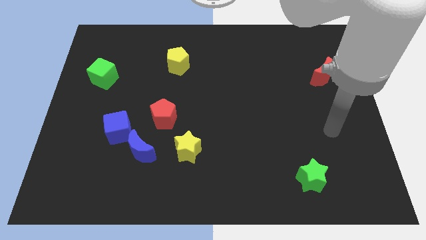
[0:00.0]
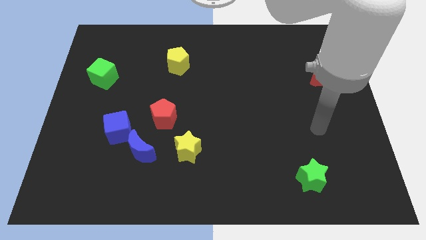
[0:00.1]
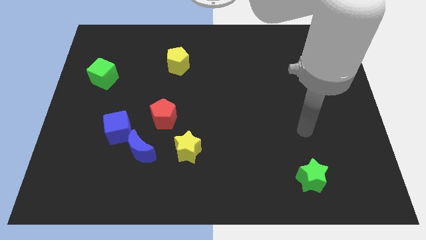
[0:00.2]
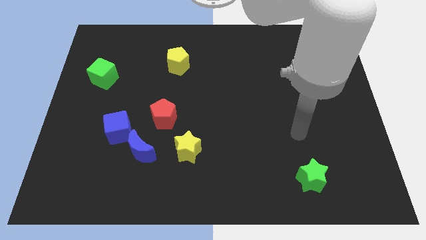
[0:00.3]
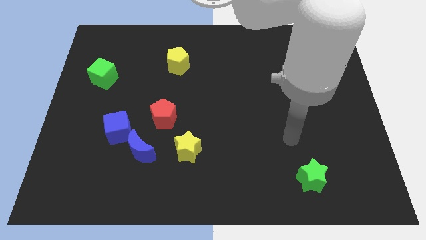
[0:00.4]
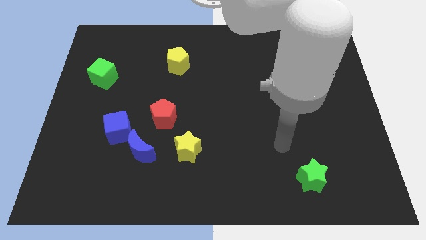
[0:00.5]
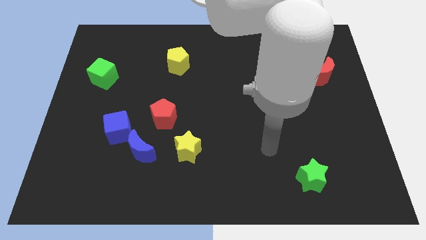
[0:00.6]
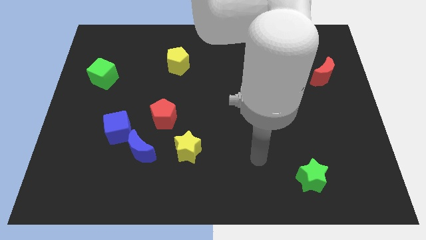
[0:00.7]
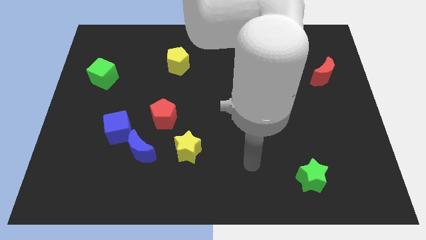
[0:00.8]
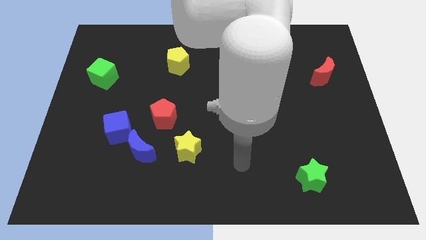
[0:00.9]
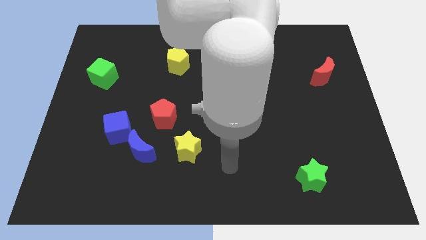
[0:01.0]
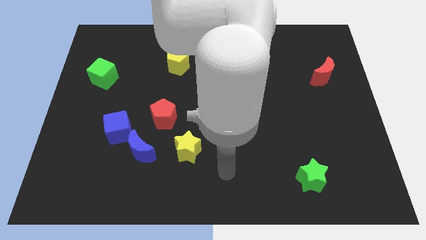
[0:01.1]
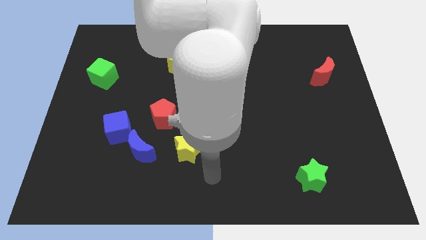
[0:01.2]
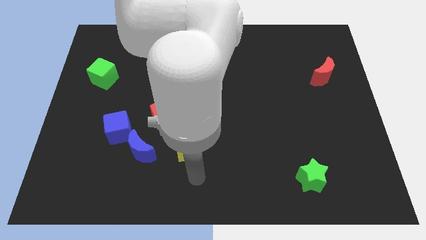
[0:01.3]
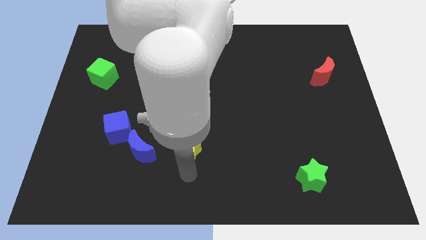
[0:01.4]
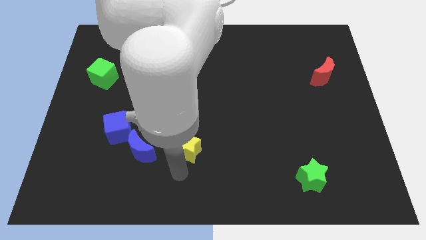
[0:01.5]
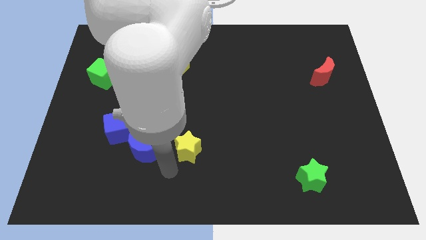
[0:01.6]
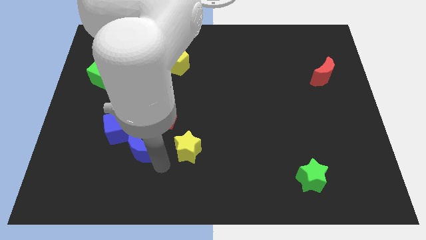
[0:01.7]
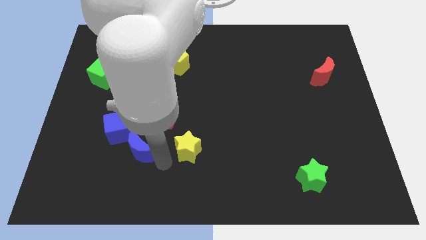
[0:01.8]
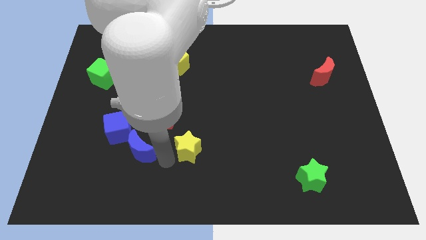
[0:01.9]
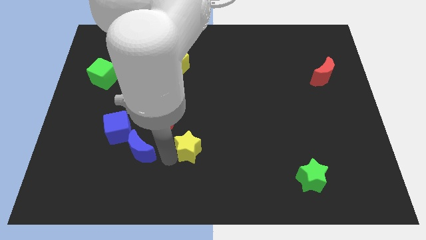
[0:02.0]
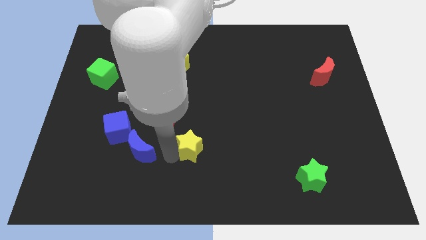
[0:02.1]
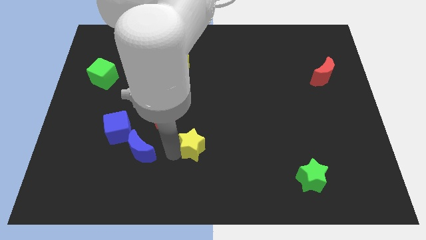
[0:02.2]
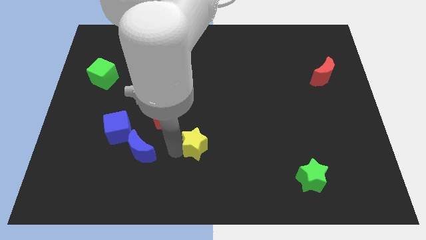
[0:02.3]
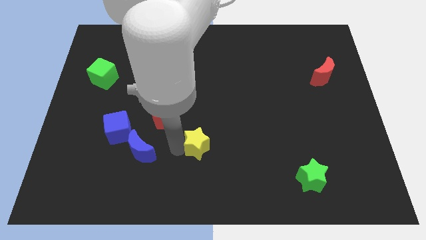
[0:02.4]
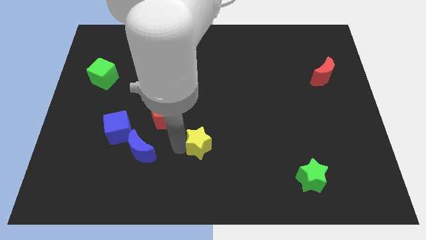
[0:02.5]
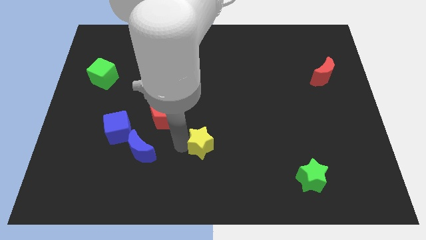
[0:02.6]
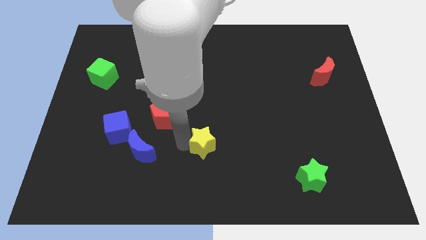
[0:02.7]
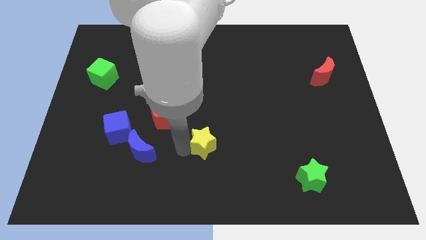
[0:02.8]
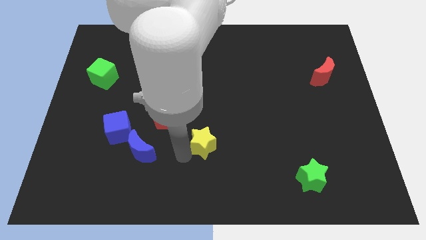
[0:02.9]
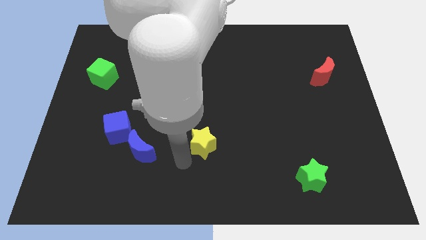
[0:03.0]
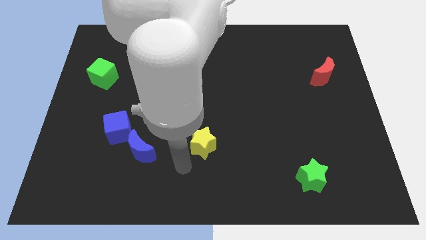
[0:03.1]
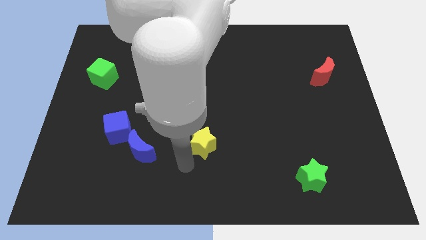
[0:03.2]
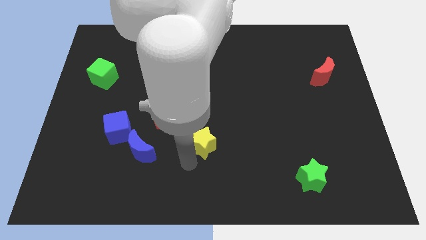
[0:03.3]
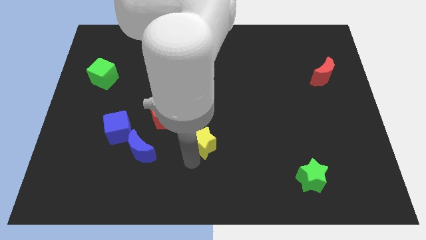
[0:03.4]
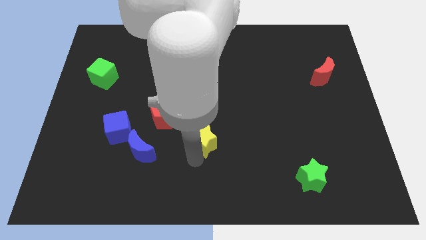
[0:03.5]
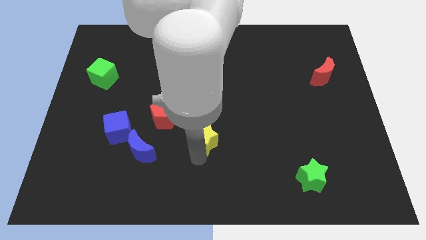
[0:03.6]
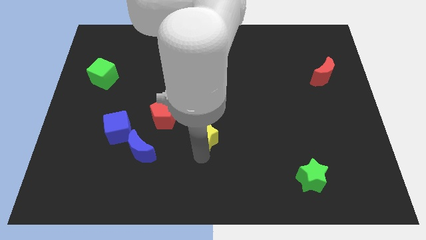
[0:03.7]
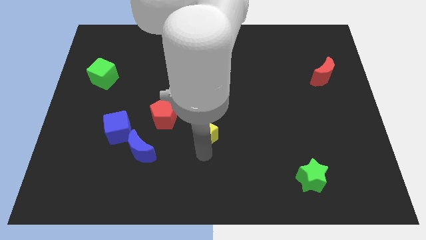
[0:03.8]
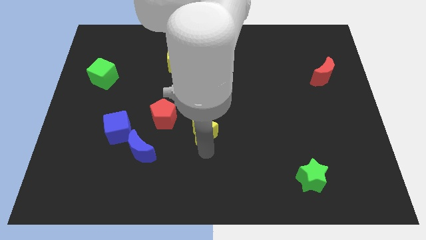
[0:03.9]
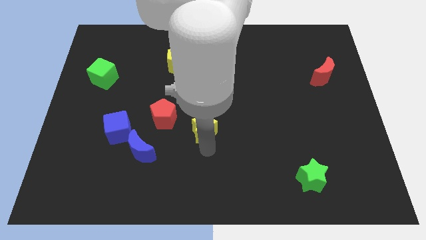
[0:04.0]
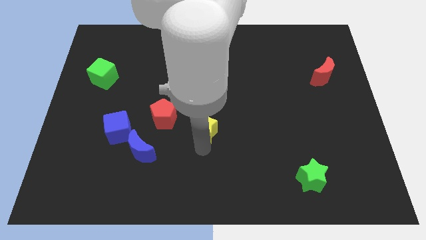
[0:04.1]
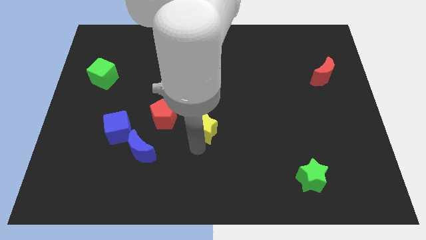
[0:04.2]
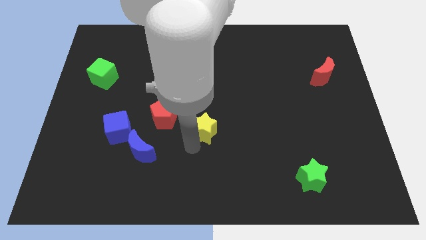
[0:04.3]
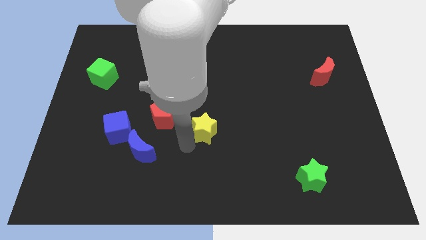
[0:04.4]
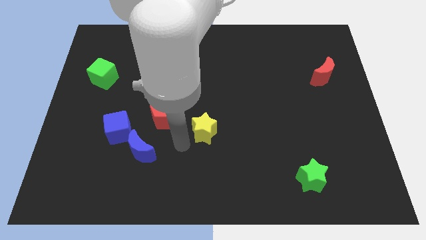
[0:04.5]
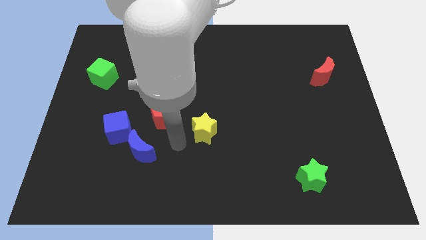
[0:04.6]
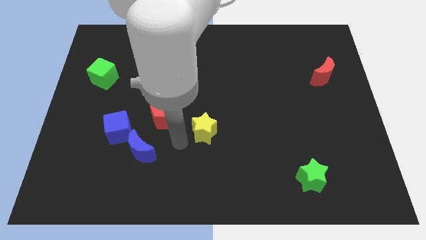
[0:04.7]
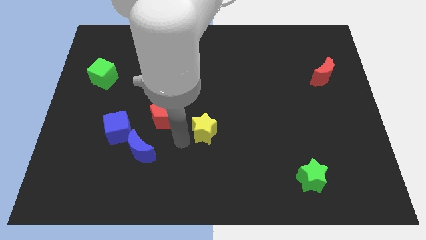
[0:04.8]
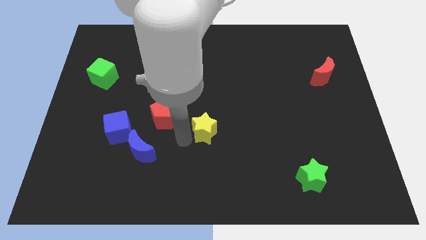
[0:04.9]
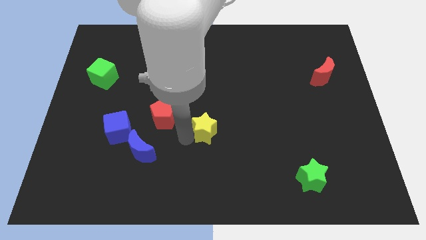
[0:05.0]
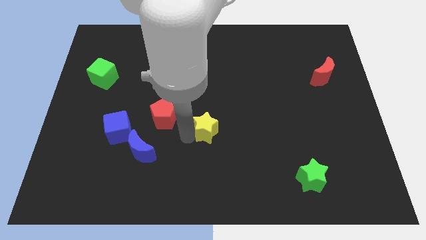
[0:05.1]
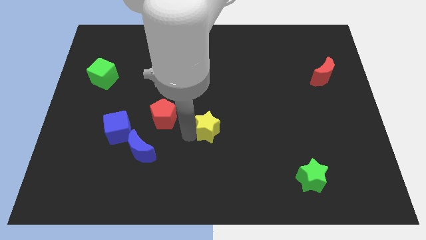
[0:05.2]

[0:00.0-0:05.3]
slightly push the yellow star up and to the right

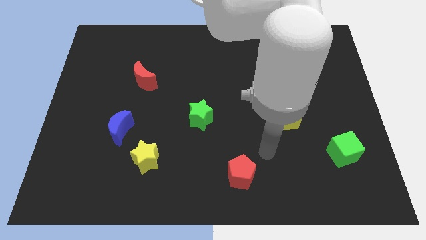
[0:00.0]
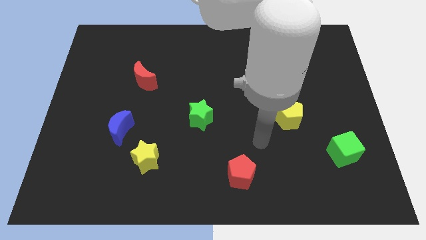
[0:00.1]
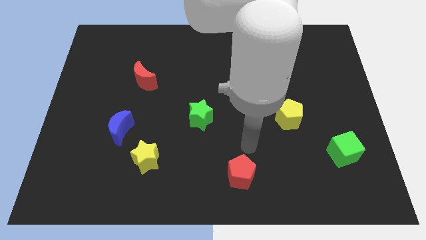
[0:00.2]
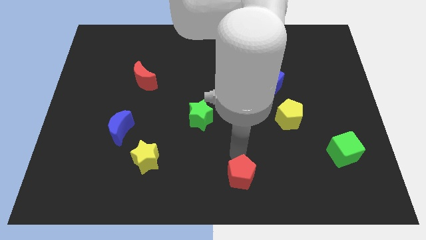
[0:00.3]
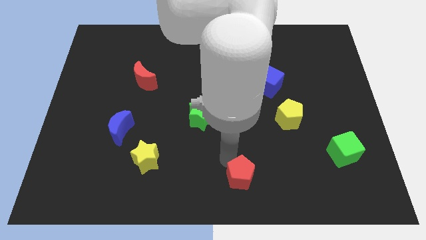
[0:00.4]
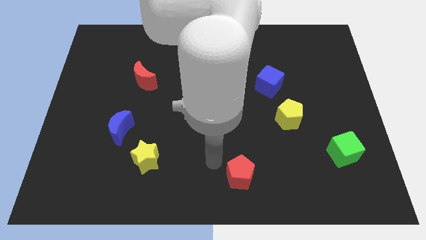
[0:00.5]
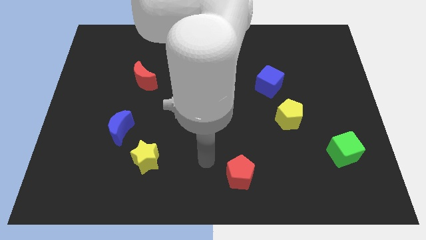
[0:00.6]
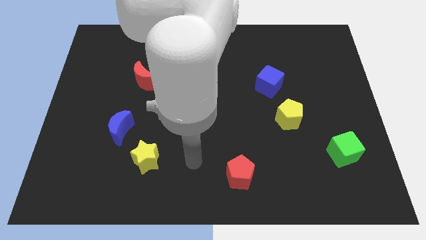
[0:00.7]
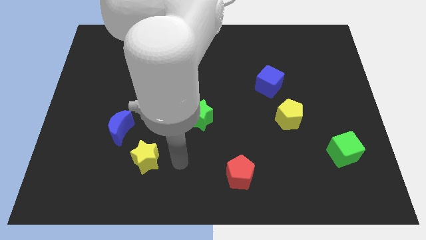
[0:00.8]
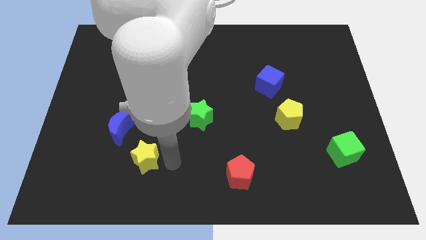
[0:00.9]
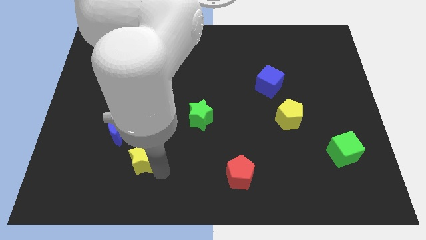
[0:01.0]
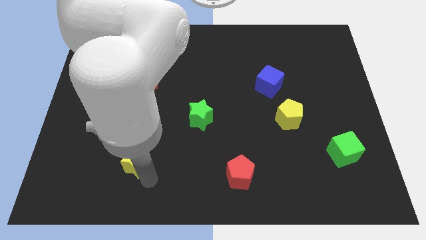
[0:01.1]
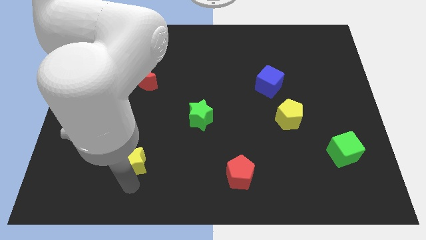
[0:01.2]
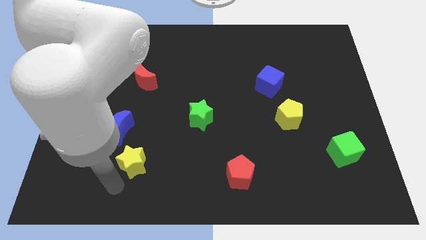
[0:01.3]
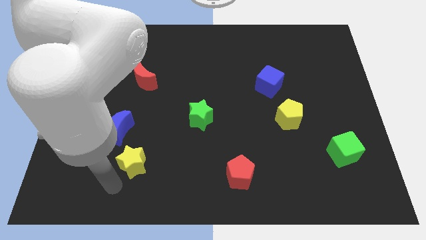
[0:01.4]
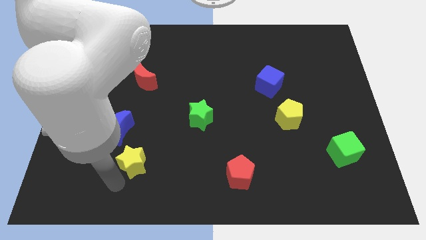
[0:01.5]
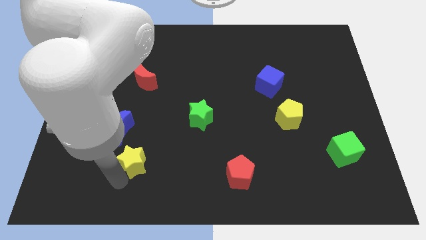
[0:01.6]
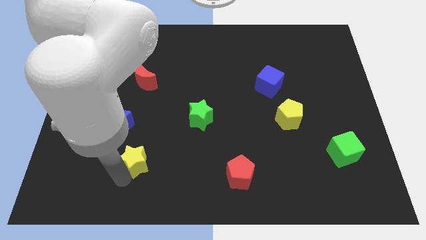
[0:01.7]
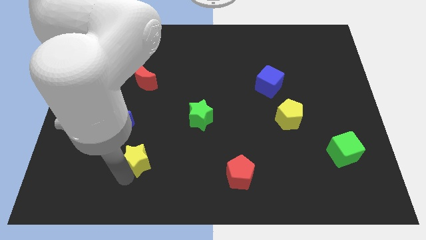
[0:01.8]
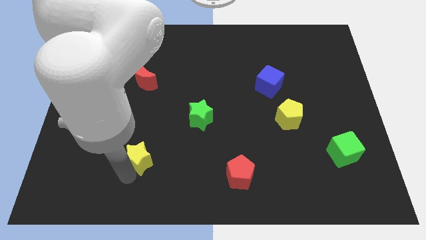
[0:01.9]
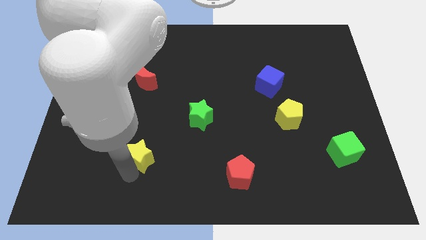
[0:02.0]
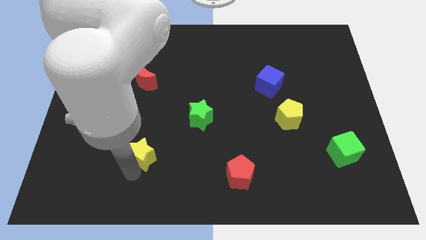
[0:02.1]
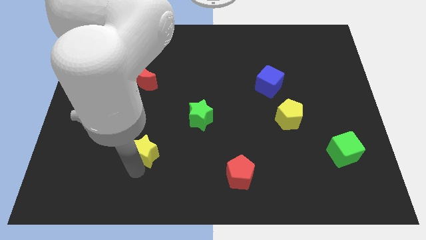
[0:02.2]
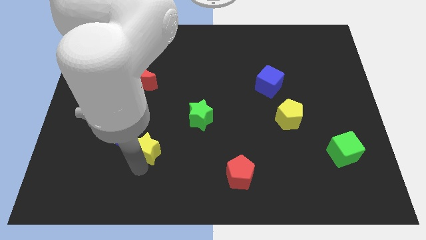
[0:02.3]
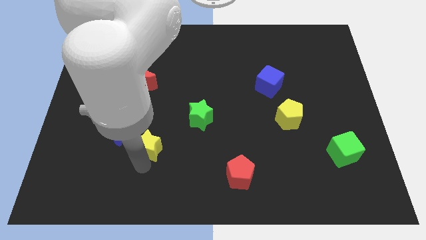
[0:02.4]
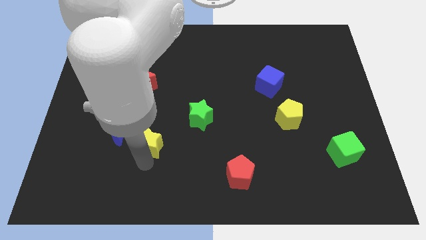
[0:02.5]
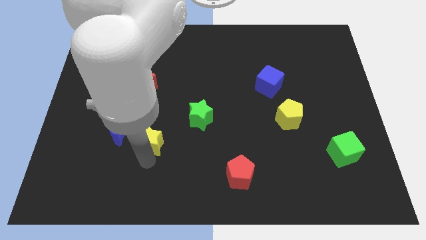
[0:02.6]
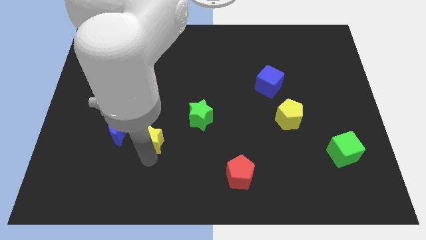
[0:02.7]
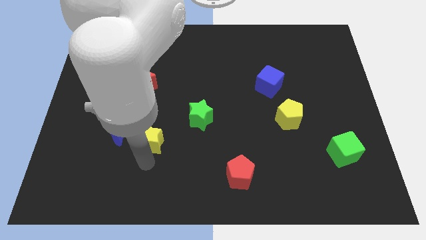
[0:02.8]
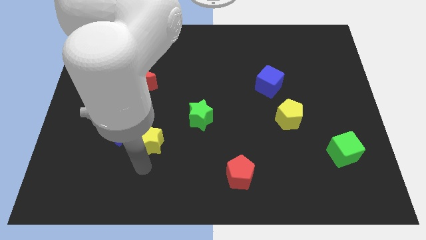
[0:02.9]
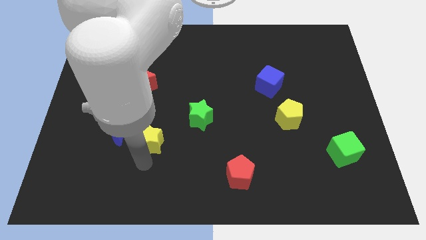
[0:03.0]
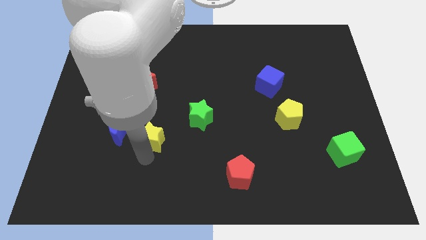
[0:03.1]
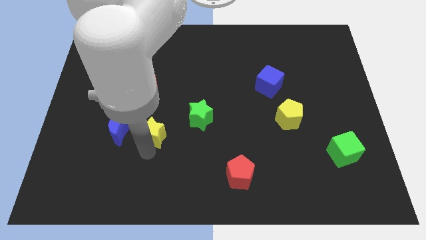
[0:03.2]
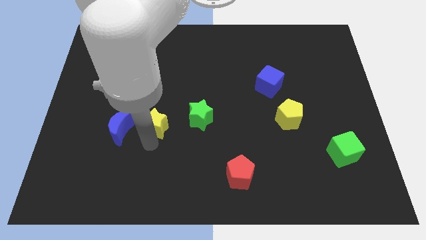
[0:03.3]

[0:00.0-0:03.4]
push the yellow star up slightly
